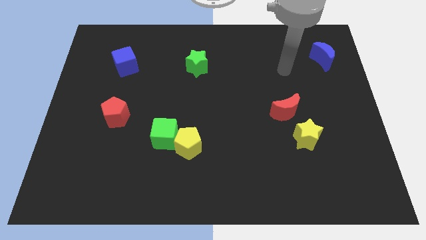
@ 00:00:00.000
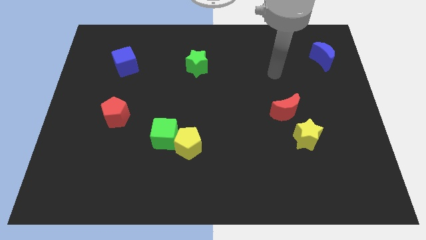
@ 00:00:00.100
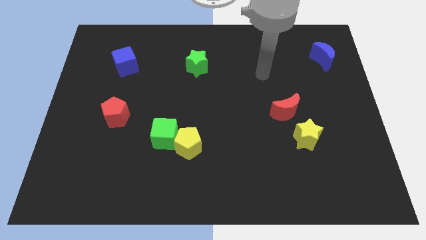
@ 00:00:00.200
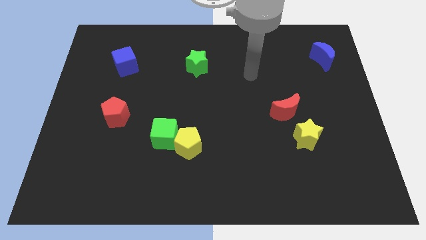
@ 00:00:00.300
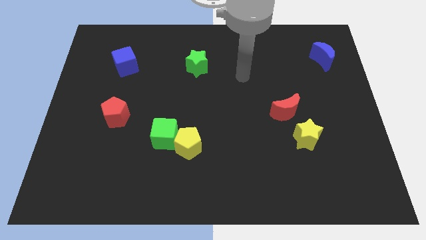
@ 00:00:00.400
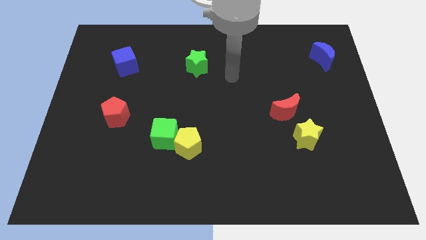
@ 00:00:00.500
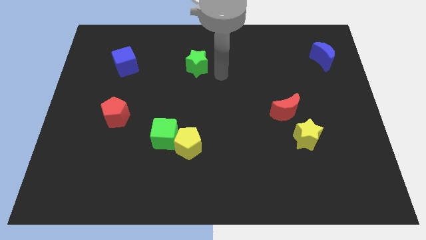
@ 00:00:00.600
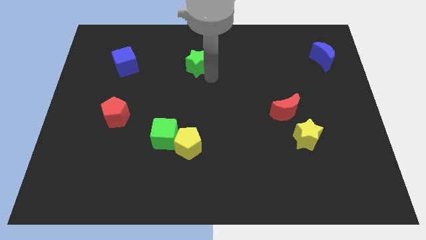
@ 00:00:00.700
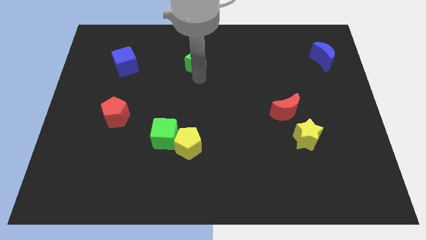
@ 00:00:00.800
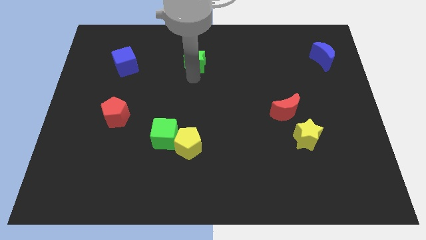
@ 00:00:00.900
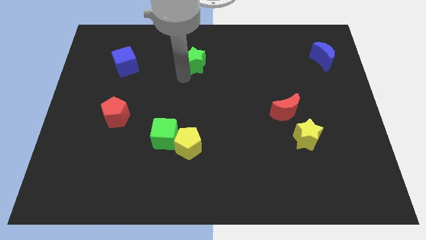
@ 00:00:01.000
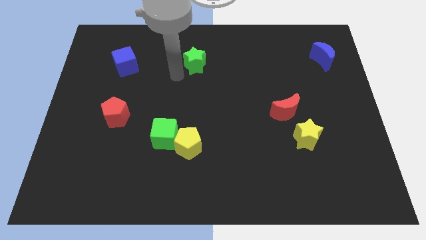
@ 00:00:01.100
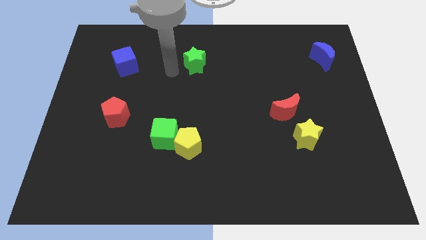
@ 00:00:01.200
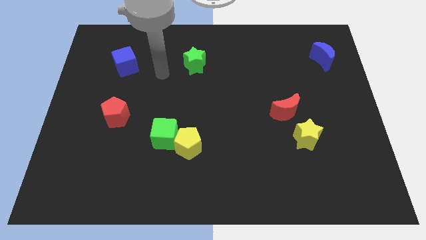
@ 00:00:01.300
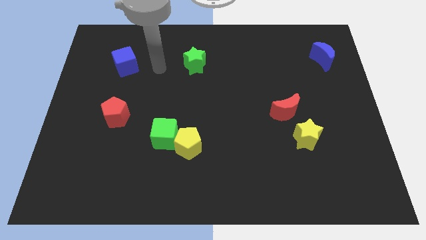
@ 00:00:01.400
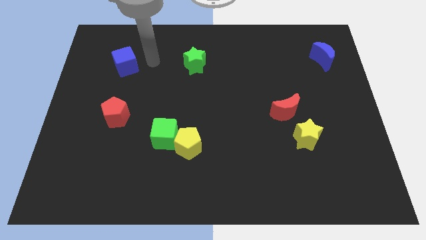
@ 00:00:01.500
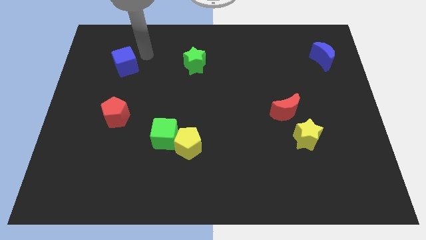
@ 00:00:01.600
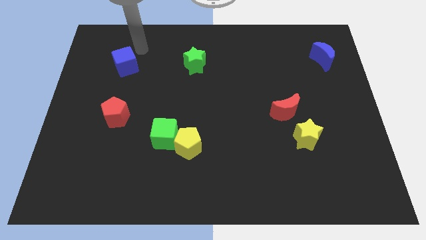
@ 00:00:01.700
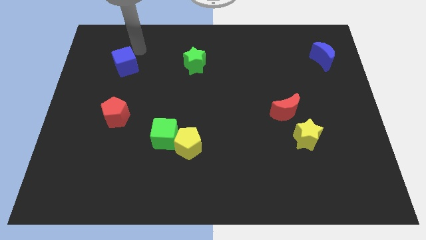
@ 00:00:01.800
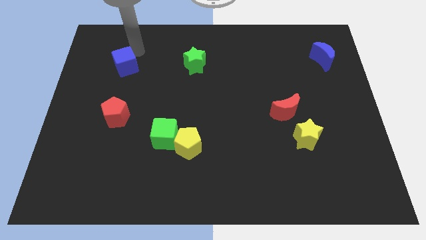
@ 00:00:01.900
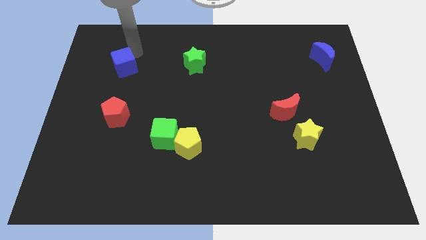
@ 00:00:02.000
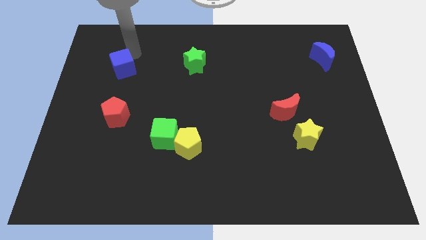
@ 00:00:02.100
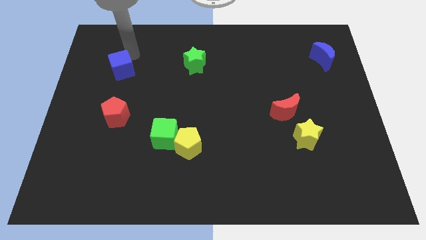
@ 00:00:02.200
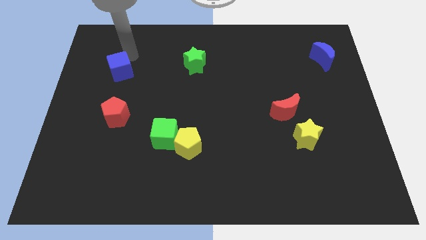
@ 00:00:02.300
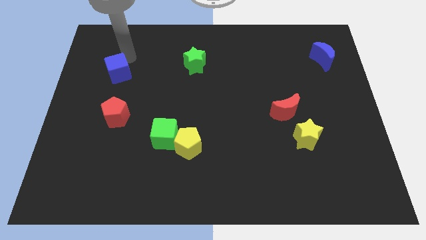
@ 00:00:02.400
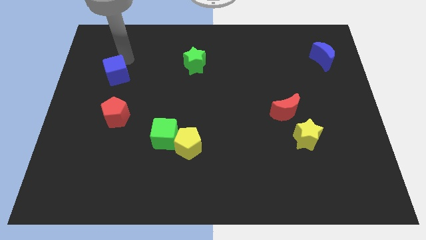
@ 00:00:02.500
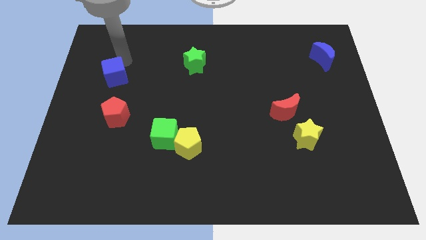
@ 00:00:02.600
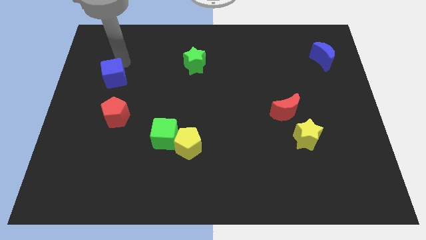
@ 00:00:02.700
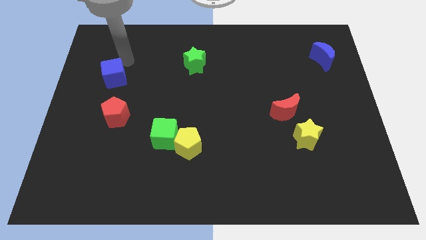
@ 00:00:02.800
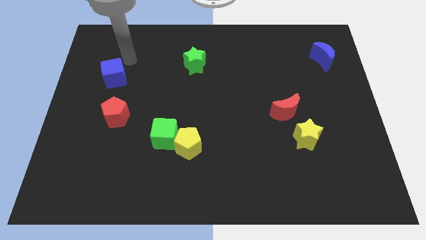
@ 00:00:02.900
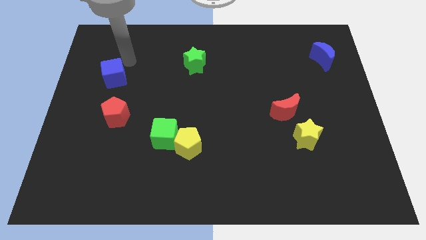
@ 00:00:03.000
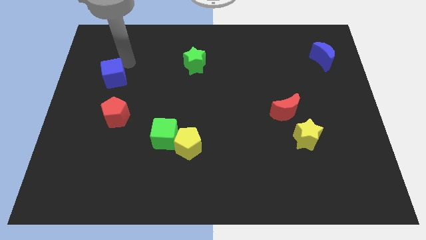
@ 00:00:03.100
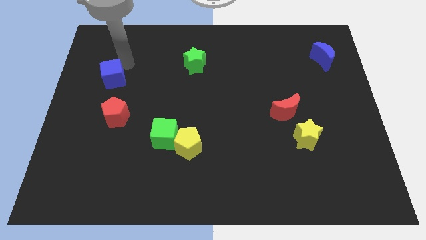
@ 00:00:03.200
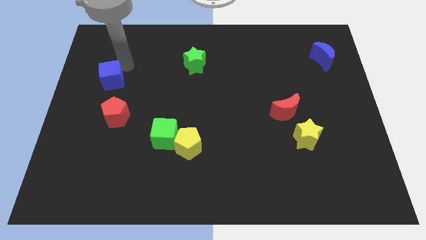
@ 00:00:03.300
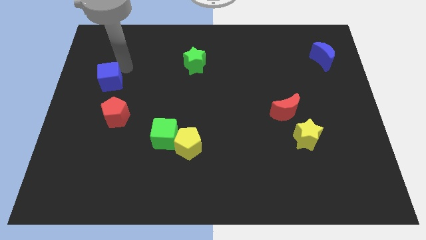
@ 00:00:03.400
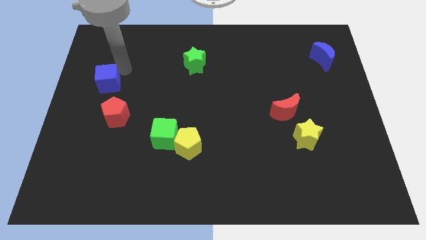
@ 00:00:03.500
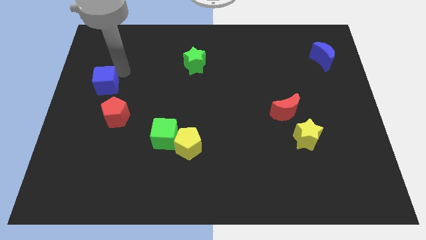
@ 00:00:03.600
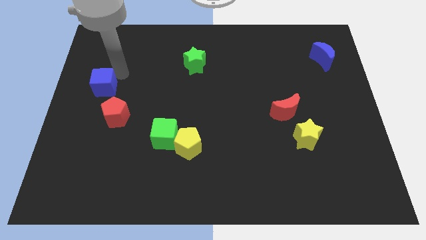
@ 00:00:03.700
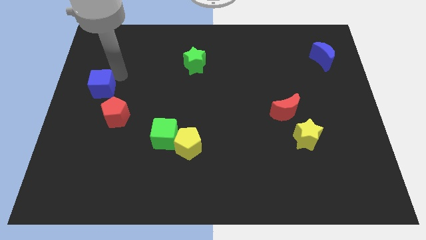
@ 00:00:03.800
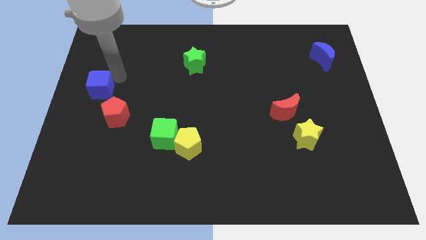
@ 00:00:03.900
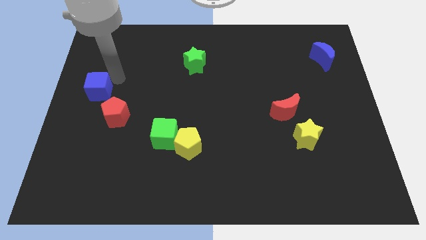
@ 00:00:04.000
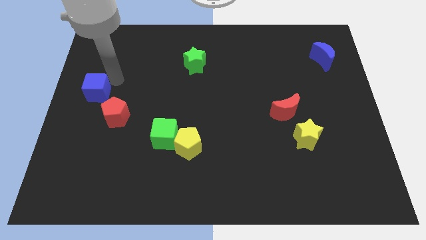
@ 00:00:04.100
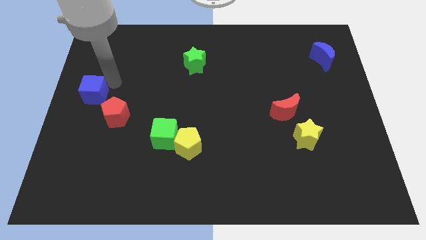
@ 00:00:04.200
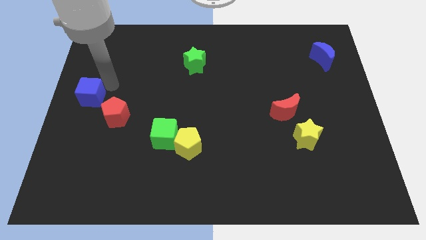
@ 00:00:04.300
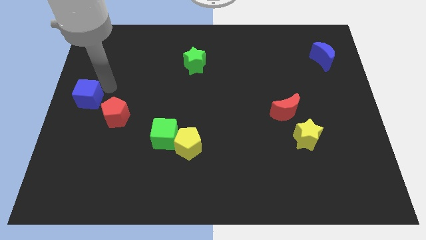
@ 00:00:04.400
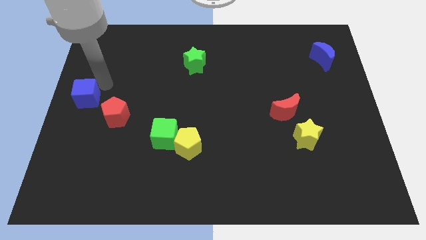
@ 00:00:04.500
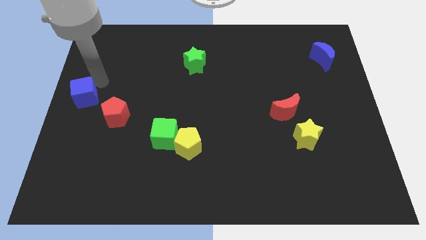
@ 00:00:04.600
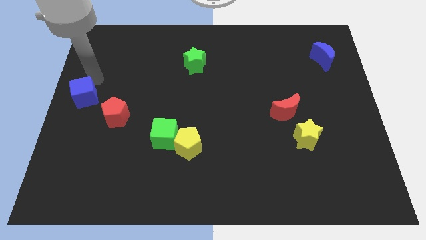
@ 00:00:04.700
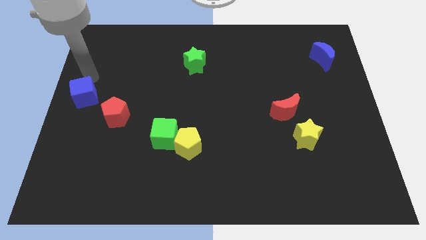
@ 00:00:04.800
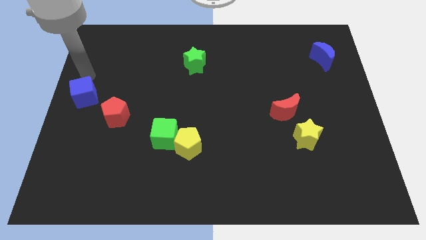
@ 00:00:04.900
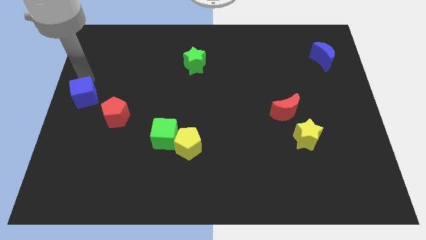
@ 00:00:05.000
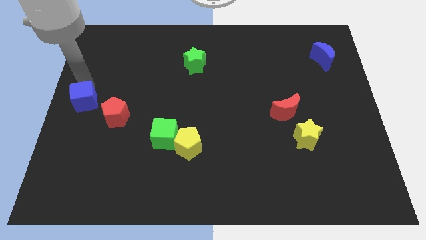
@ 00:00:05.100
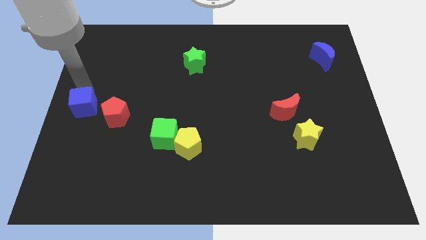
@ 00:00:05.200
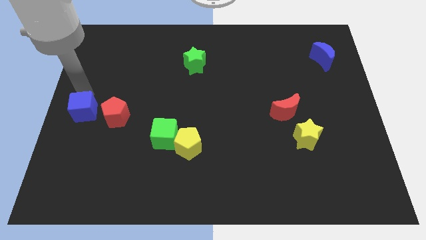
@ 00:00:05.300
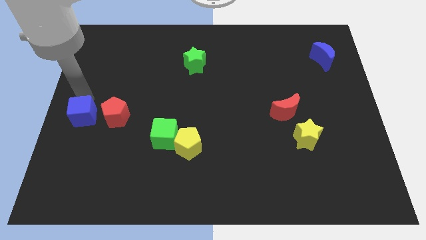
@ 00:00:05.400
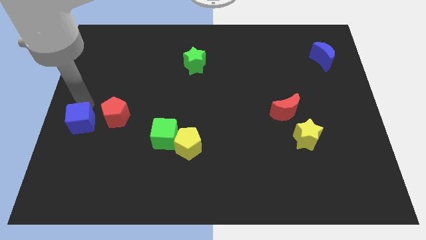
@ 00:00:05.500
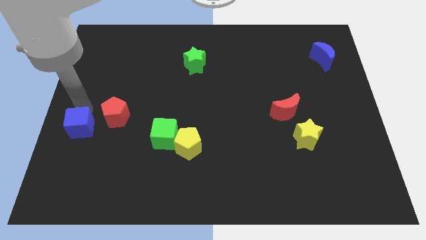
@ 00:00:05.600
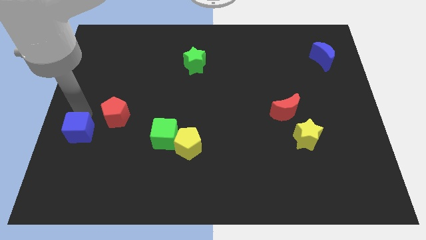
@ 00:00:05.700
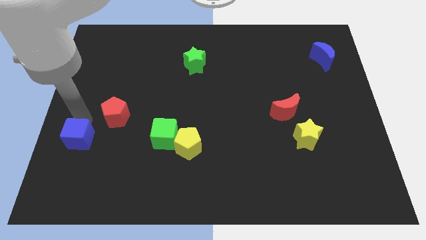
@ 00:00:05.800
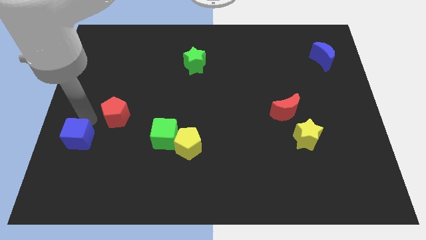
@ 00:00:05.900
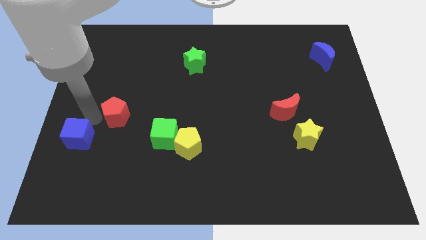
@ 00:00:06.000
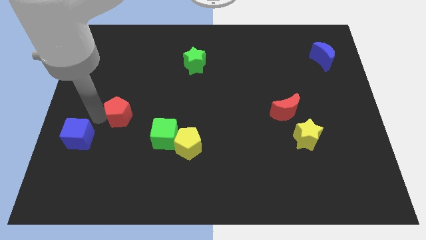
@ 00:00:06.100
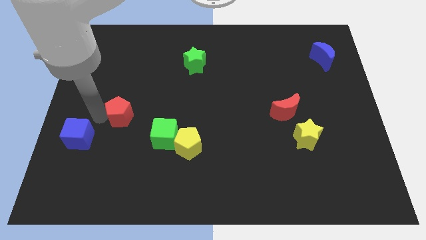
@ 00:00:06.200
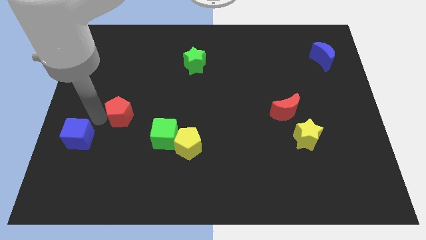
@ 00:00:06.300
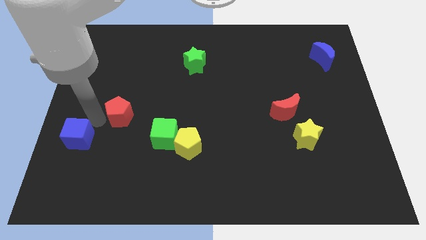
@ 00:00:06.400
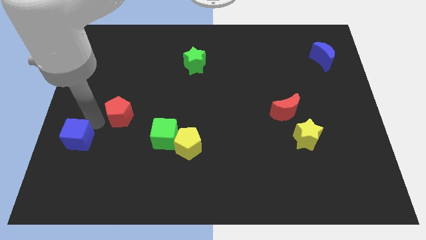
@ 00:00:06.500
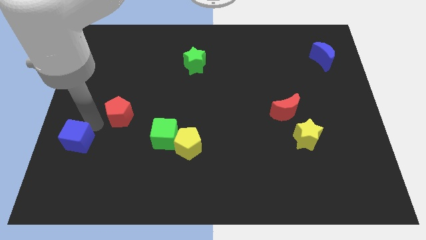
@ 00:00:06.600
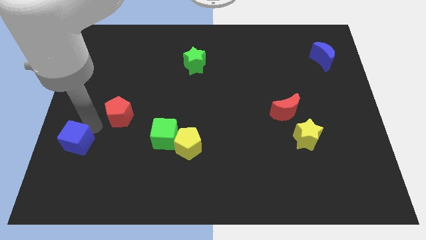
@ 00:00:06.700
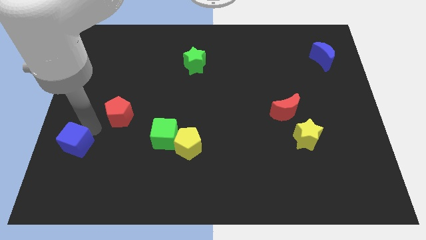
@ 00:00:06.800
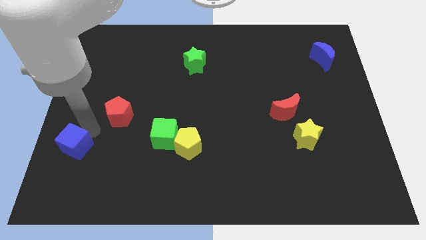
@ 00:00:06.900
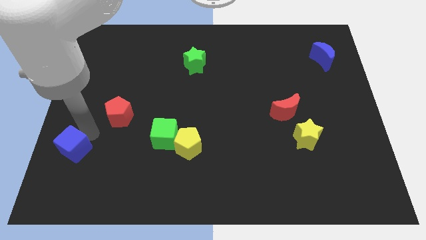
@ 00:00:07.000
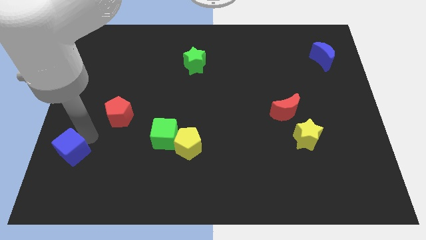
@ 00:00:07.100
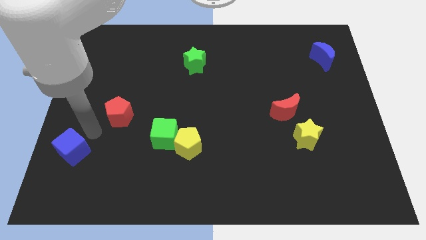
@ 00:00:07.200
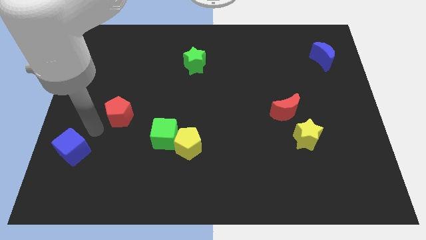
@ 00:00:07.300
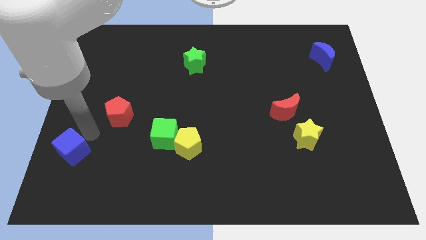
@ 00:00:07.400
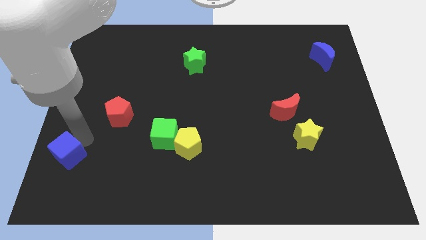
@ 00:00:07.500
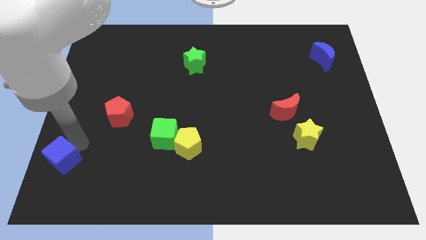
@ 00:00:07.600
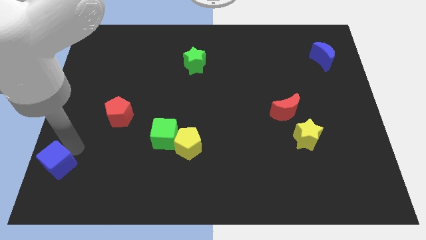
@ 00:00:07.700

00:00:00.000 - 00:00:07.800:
push the blue cube to the bottom left corner
